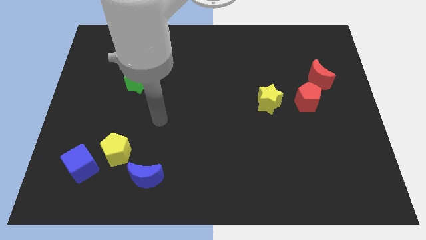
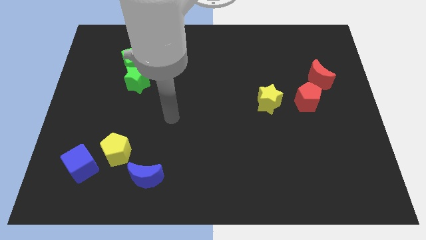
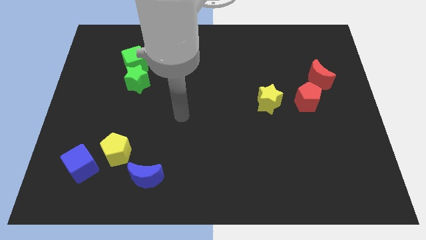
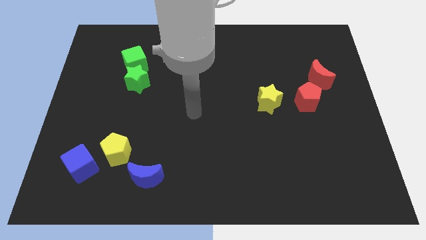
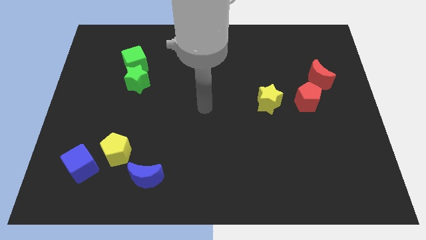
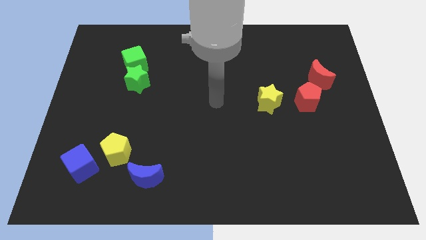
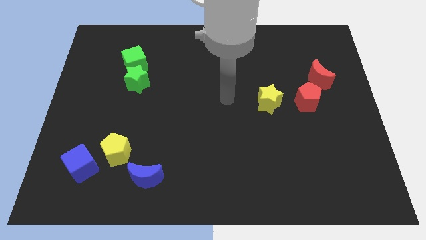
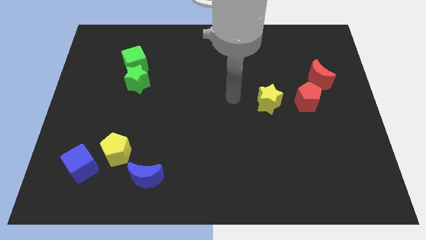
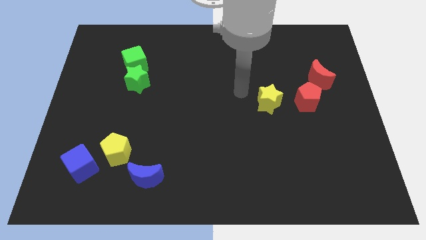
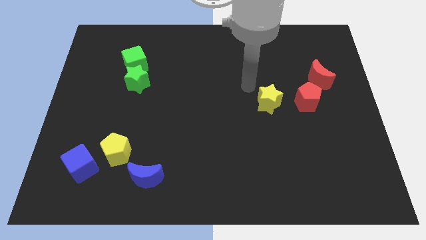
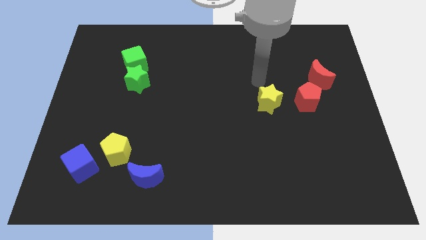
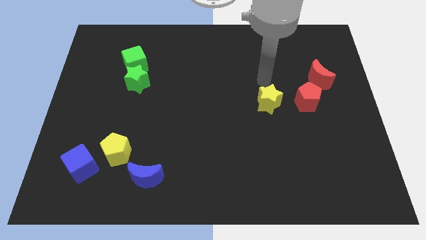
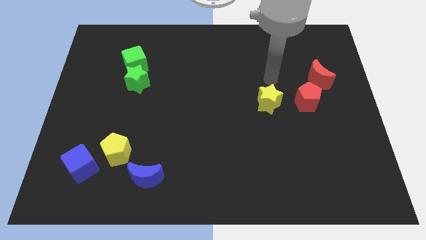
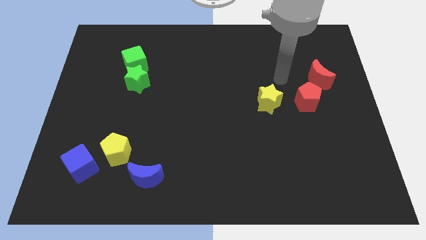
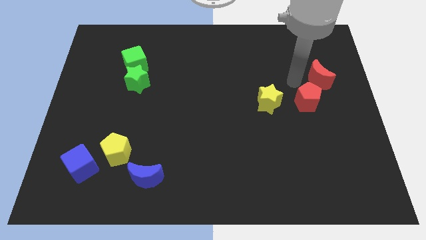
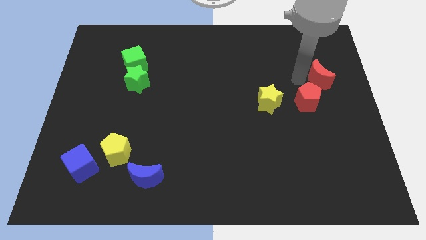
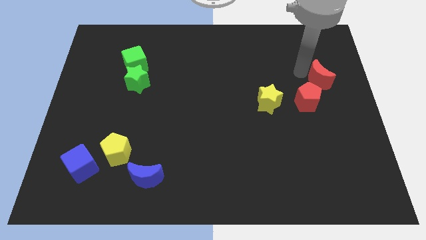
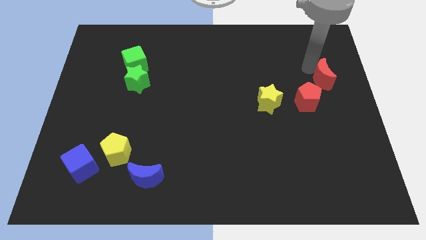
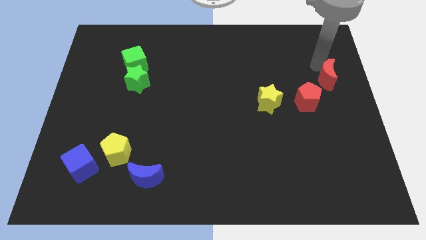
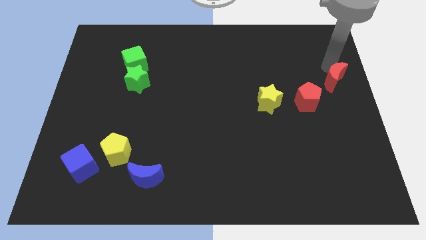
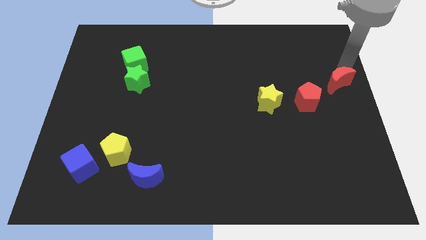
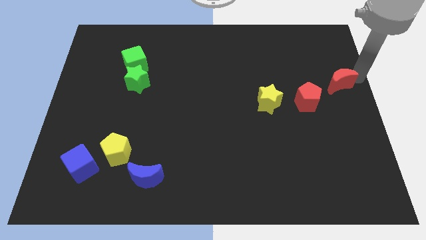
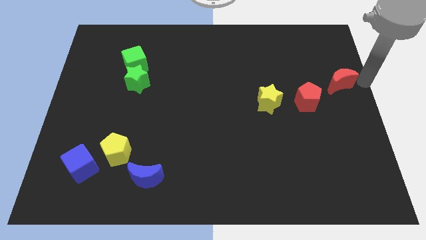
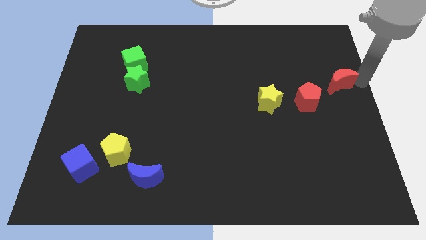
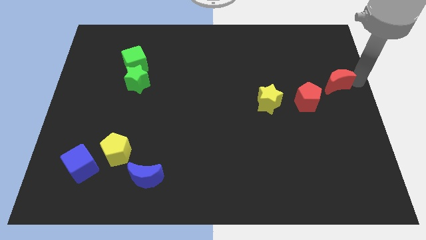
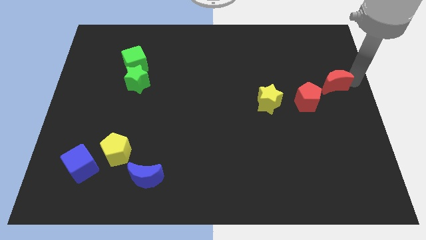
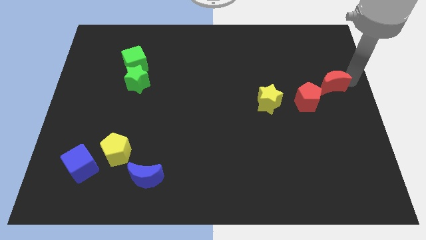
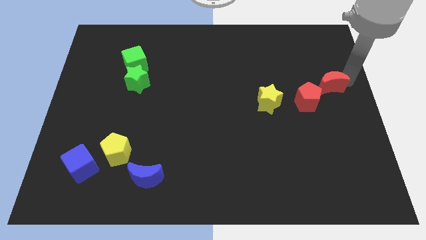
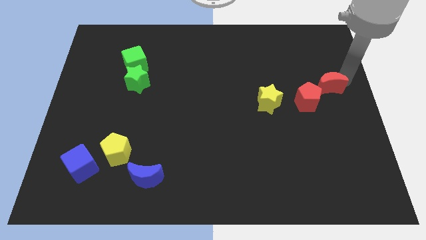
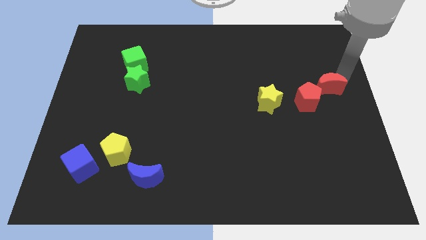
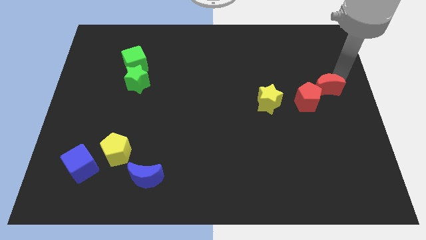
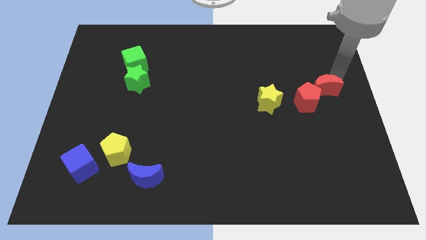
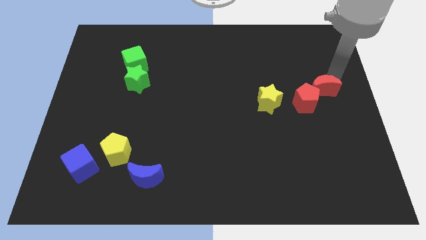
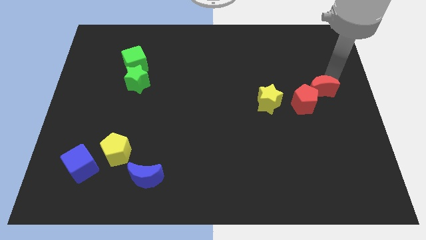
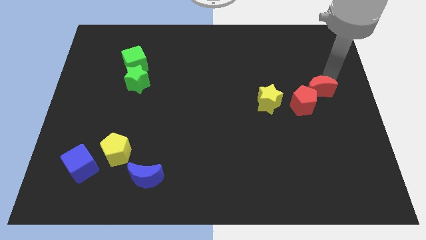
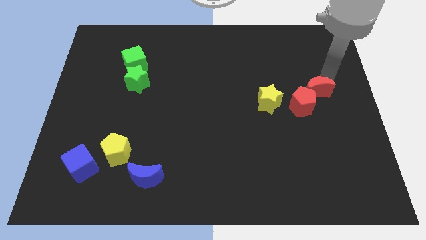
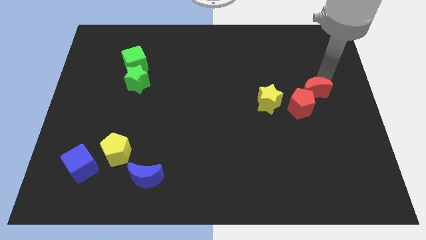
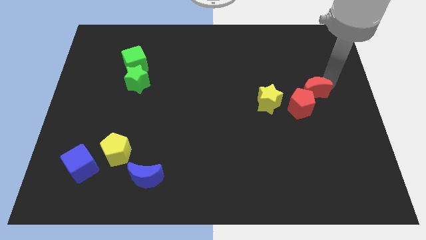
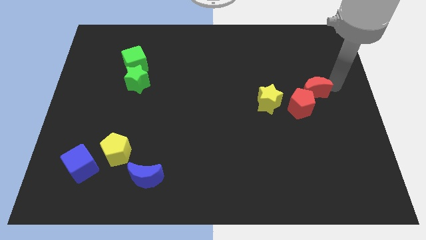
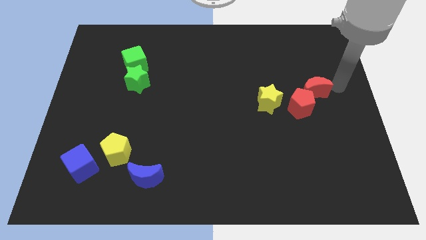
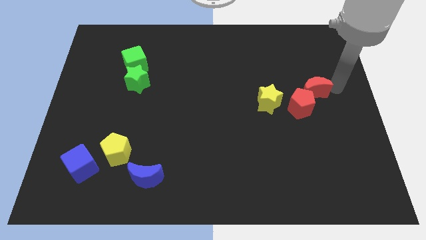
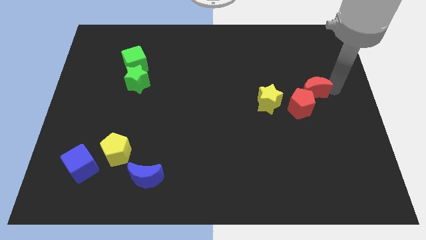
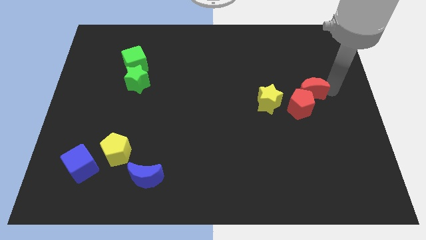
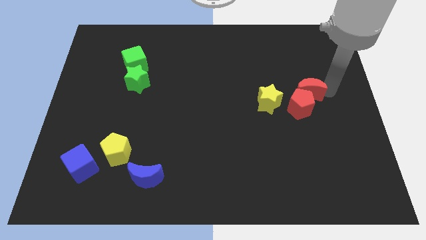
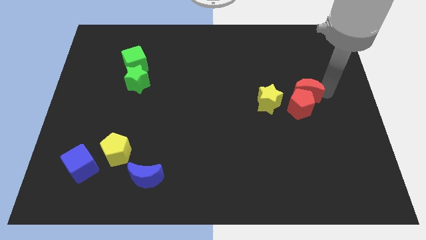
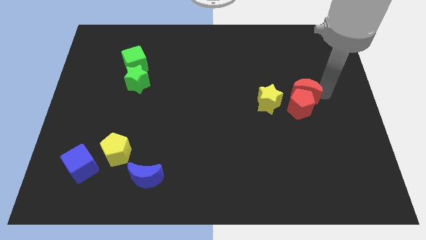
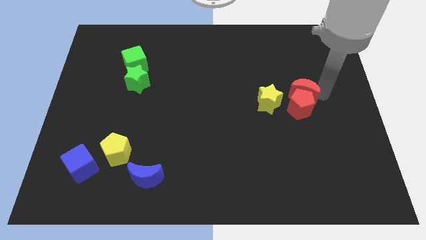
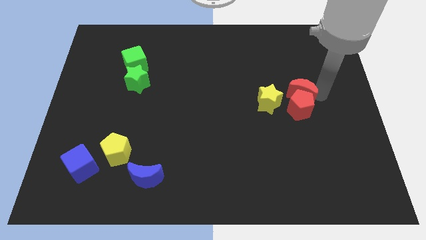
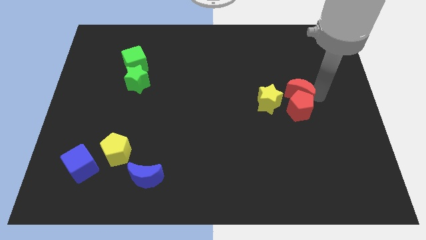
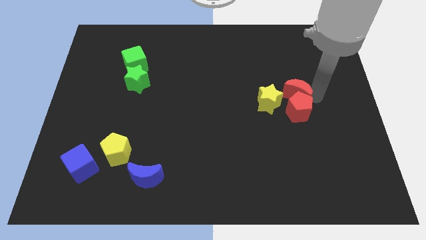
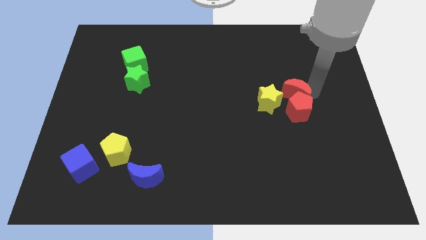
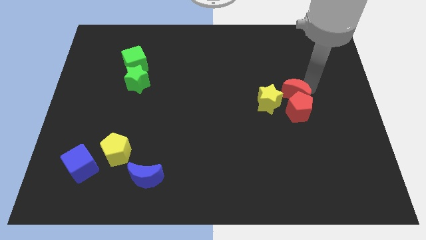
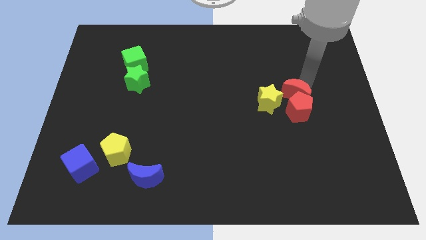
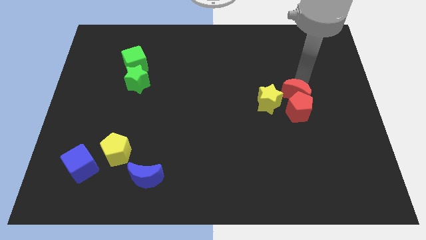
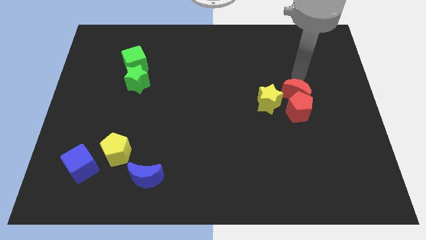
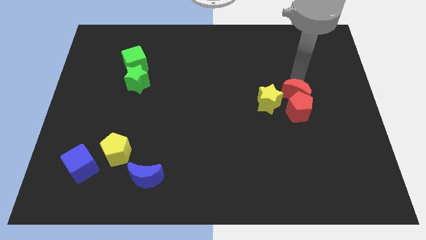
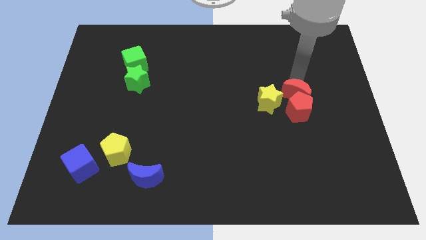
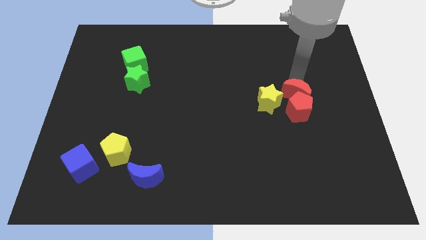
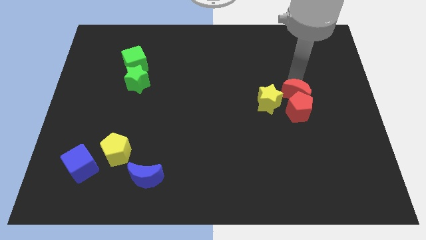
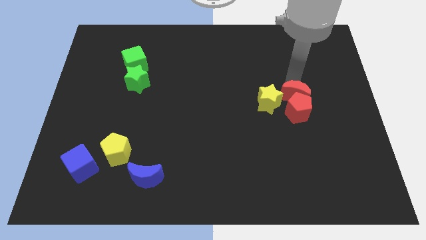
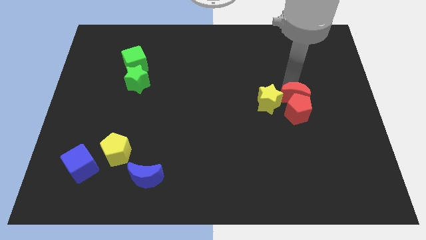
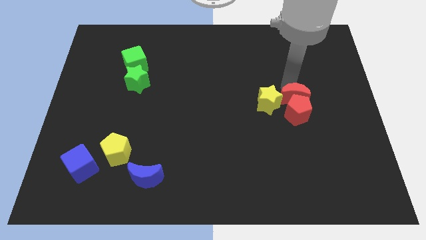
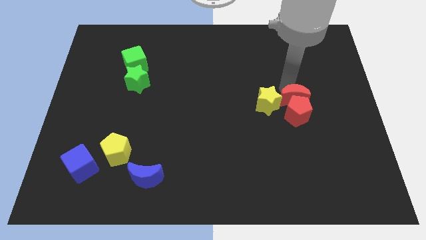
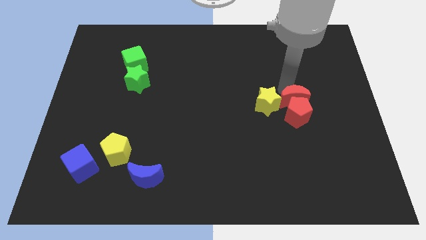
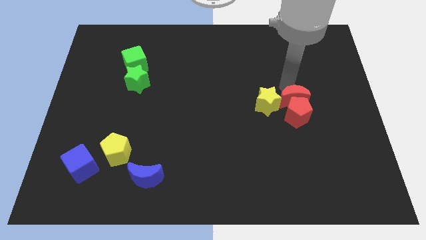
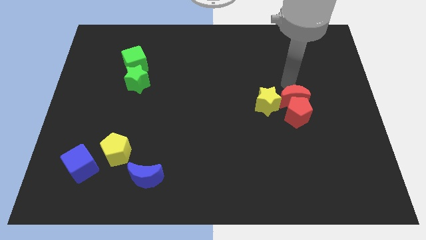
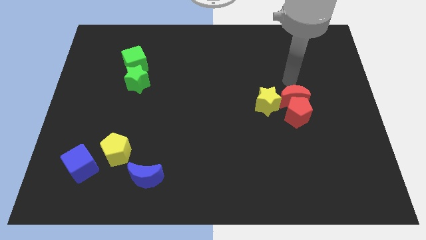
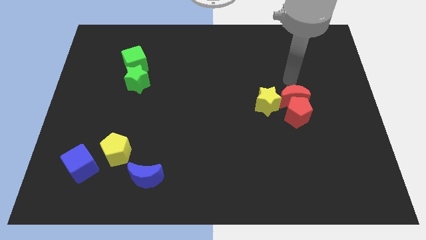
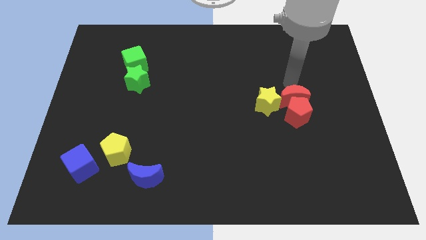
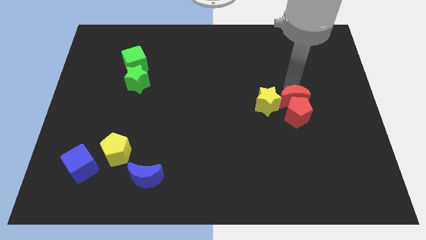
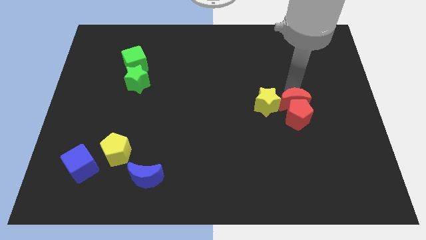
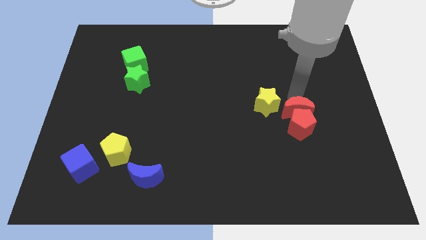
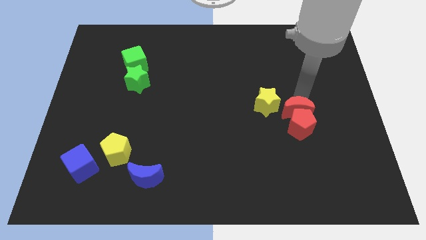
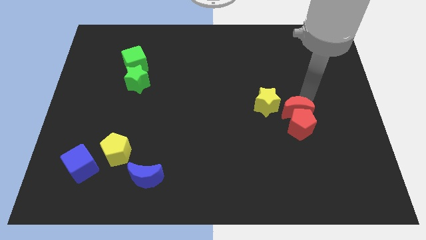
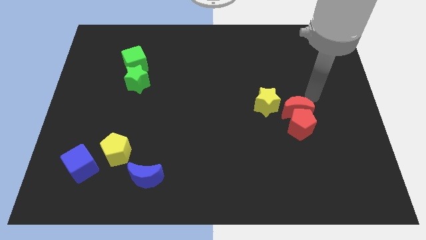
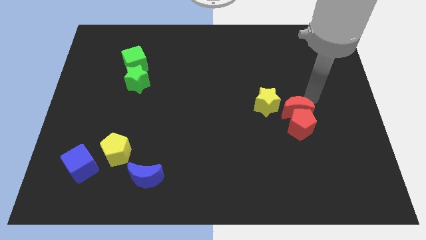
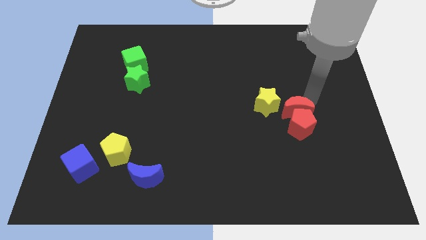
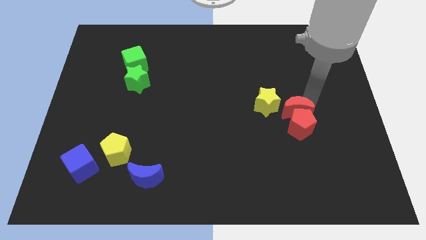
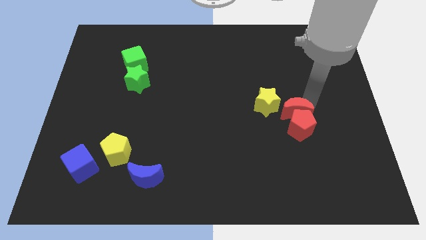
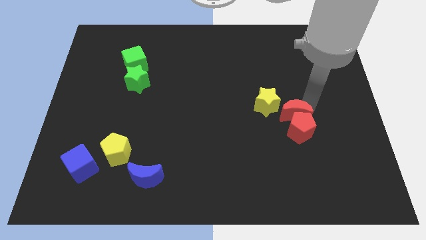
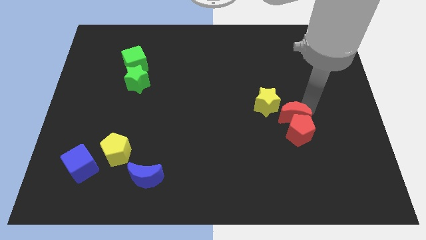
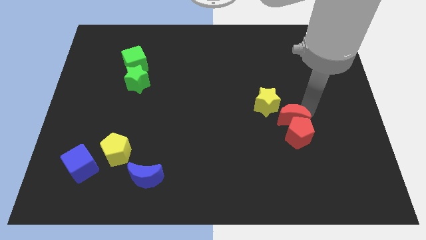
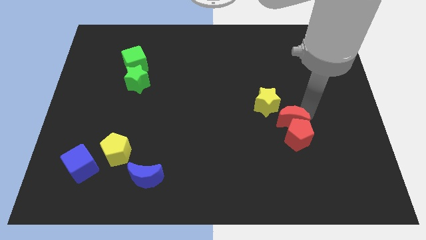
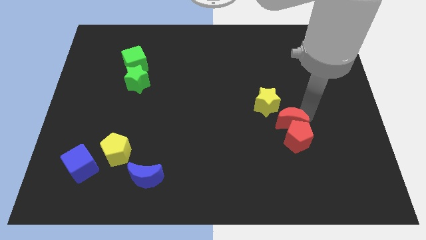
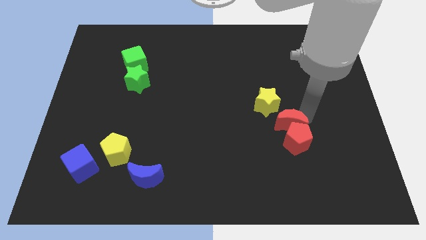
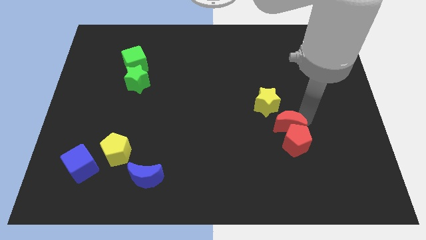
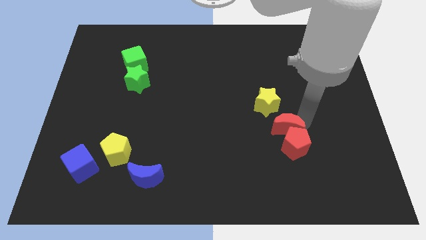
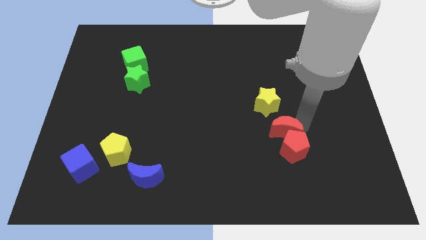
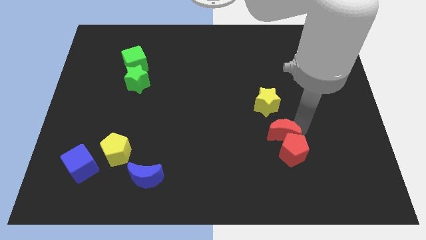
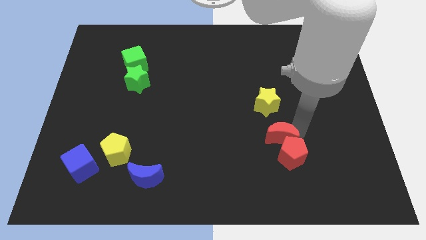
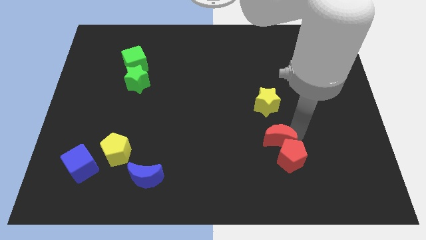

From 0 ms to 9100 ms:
slide the red moon downwards and then to the left
